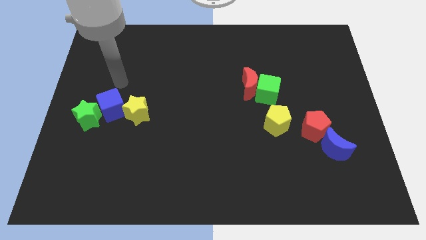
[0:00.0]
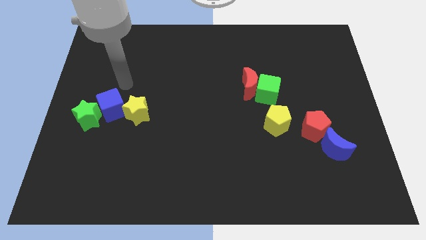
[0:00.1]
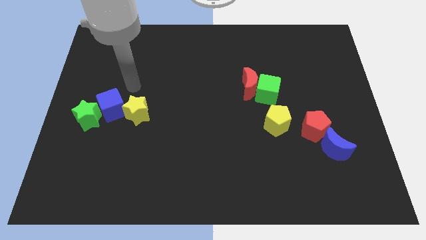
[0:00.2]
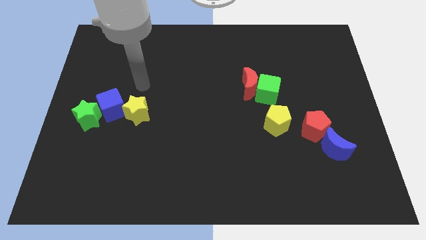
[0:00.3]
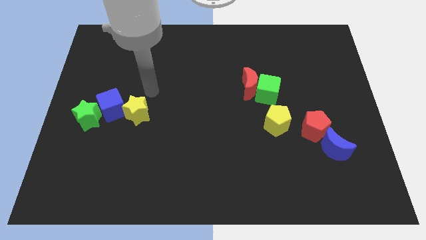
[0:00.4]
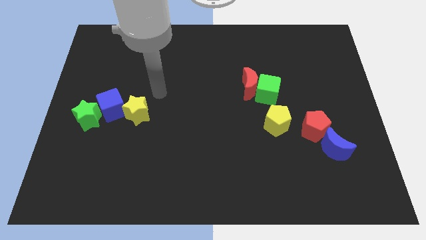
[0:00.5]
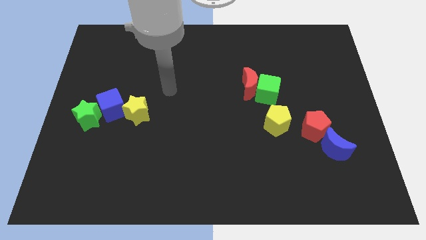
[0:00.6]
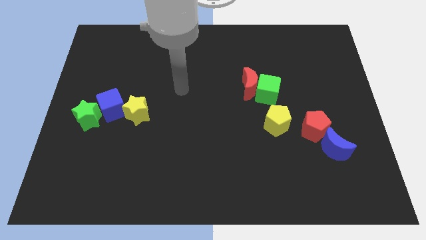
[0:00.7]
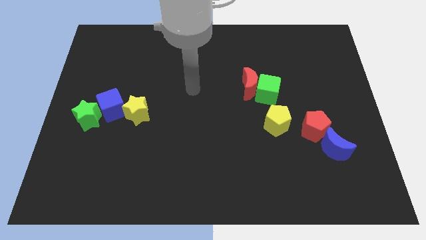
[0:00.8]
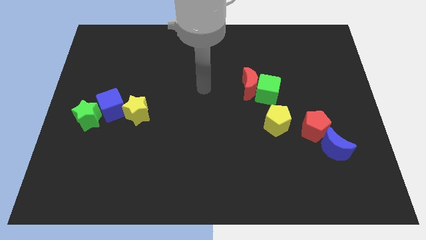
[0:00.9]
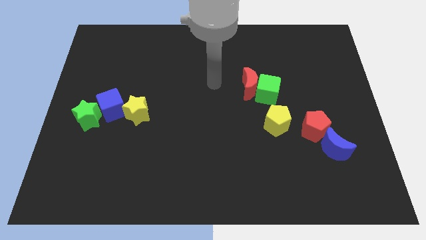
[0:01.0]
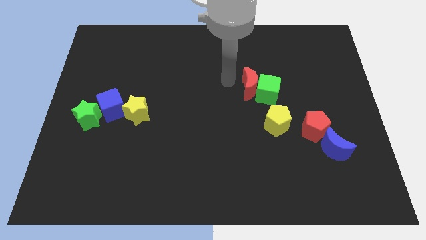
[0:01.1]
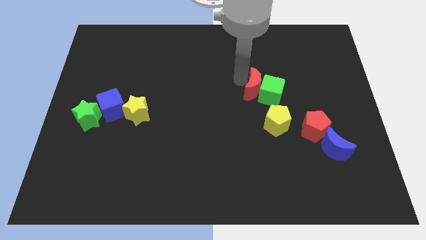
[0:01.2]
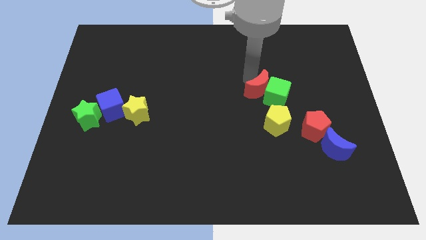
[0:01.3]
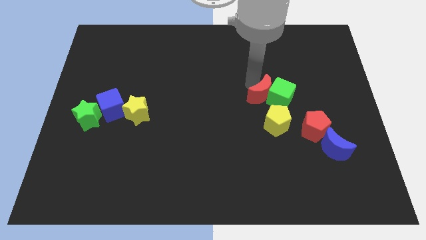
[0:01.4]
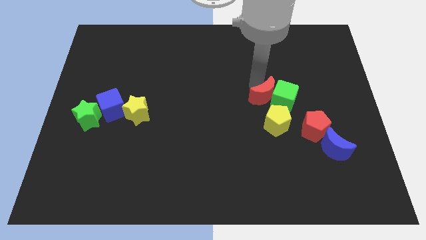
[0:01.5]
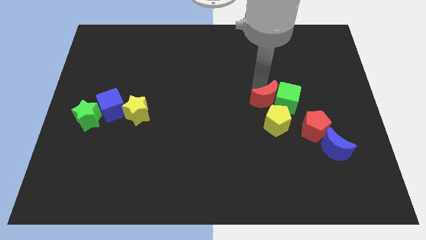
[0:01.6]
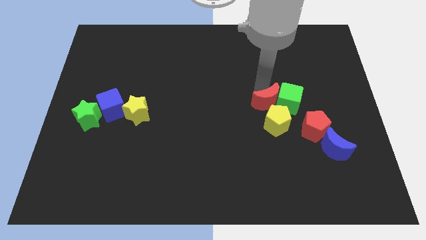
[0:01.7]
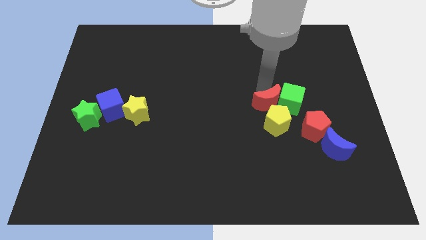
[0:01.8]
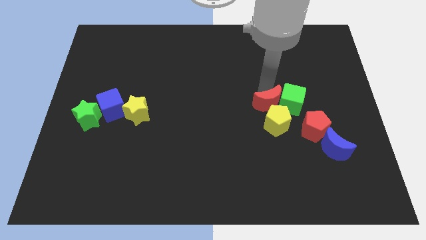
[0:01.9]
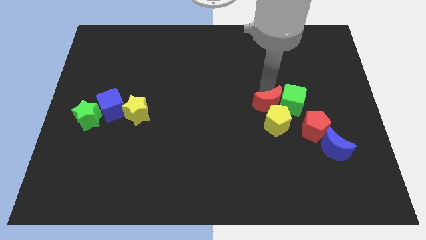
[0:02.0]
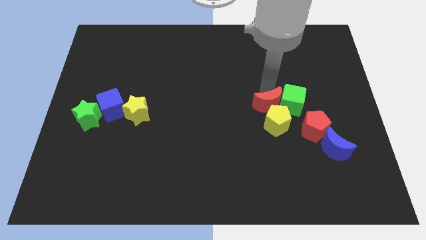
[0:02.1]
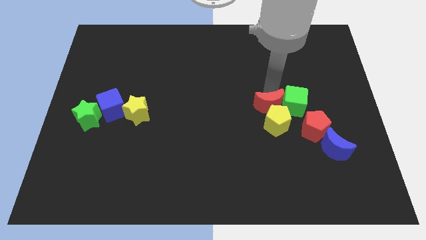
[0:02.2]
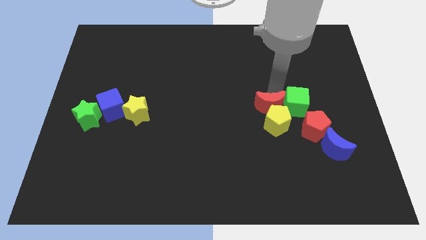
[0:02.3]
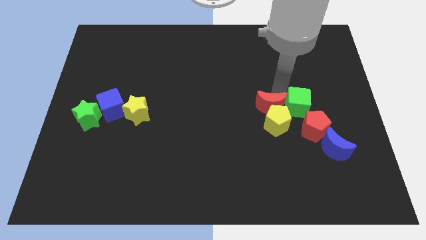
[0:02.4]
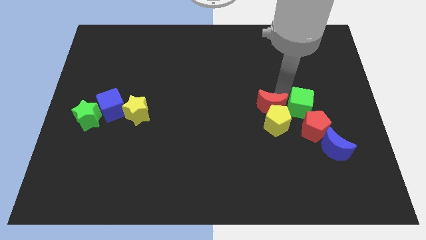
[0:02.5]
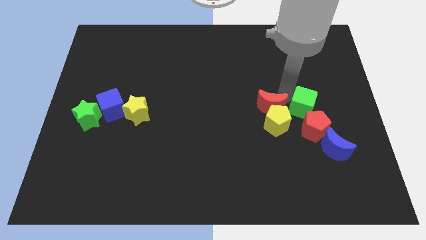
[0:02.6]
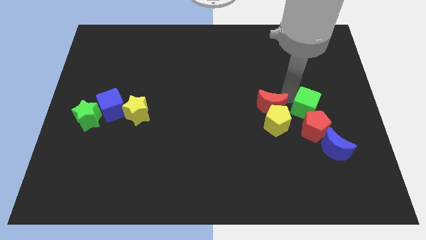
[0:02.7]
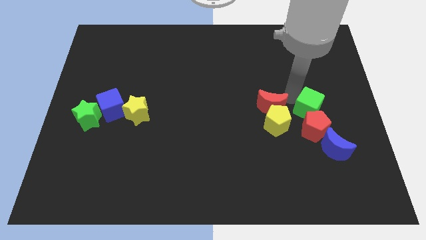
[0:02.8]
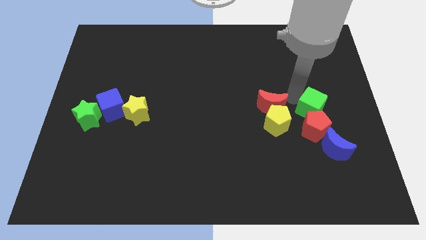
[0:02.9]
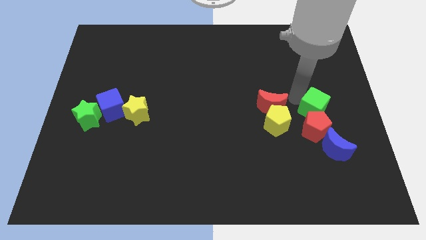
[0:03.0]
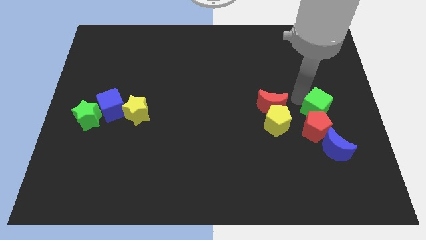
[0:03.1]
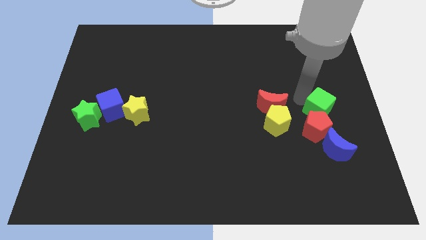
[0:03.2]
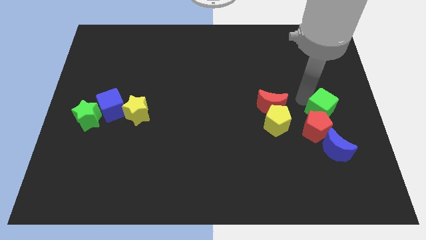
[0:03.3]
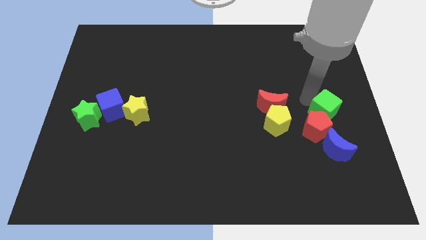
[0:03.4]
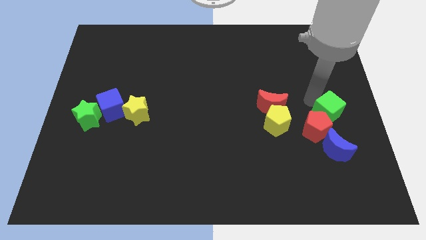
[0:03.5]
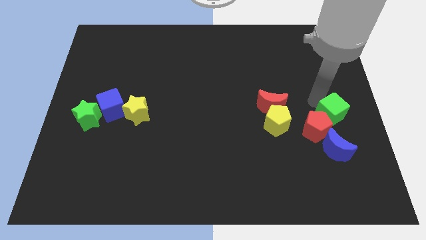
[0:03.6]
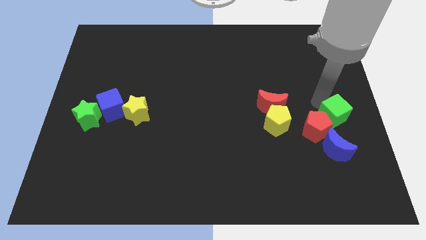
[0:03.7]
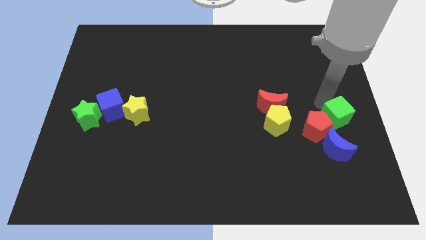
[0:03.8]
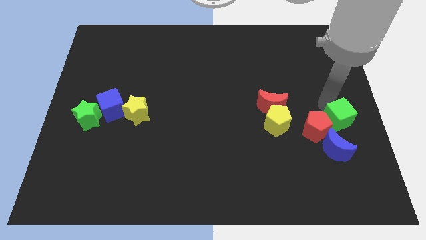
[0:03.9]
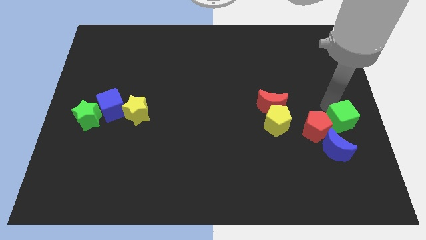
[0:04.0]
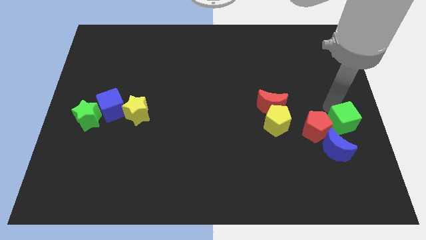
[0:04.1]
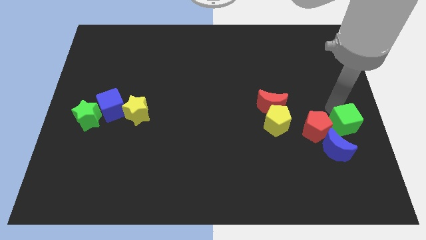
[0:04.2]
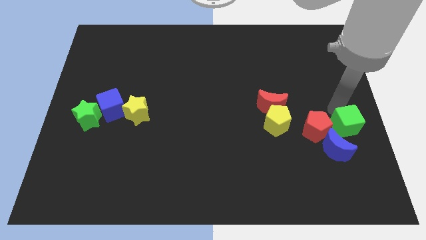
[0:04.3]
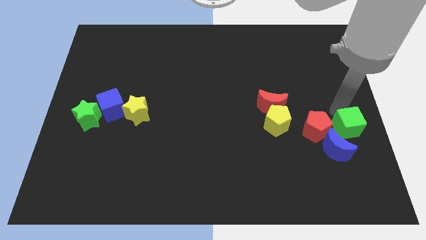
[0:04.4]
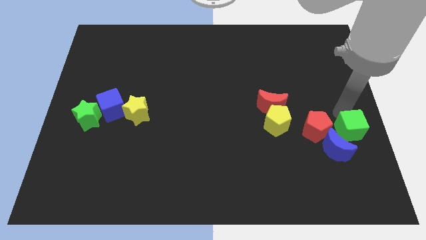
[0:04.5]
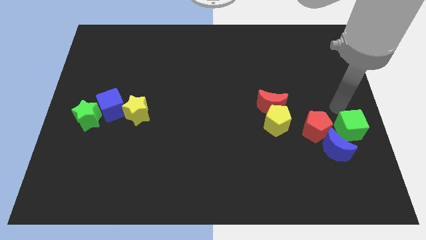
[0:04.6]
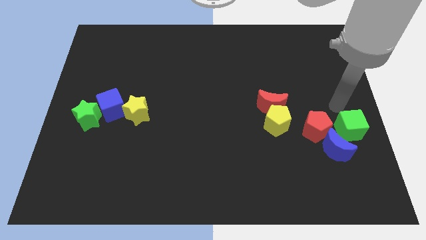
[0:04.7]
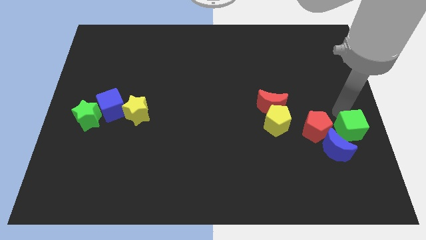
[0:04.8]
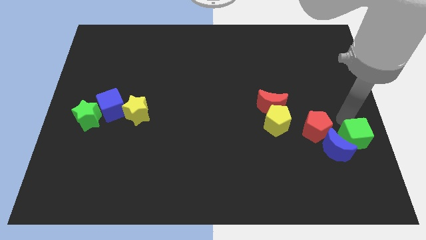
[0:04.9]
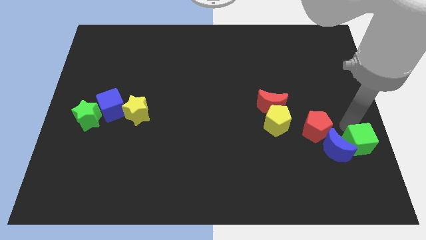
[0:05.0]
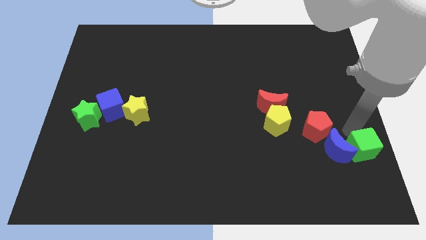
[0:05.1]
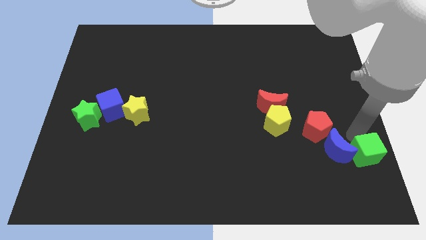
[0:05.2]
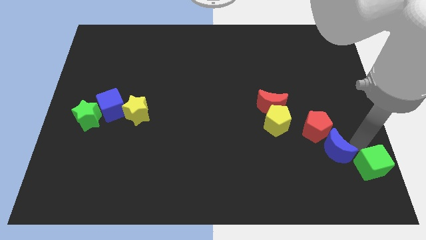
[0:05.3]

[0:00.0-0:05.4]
put the green cube to the bottom right of the board

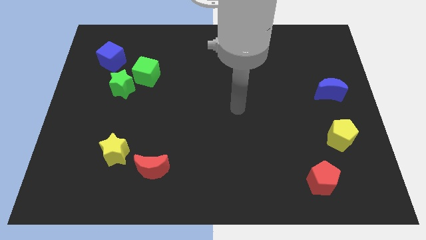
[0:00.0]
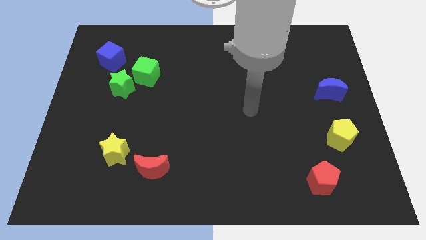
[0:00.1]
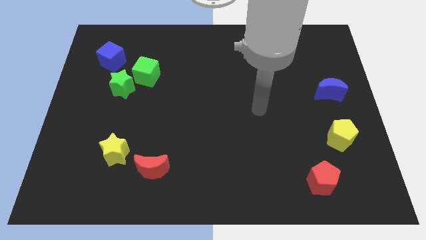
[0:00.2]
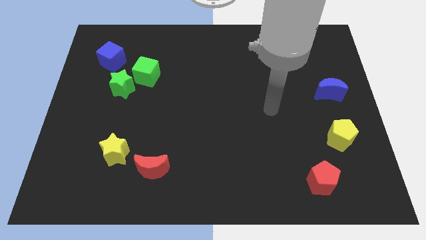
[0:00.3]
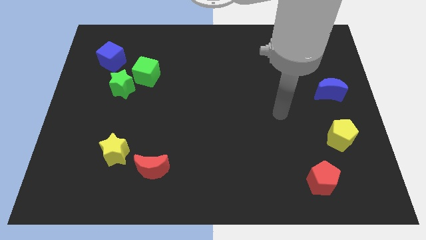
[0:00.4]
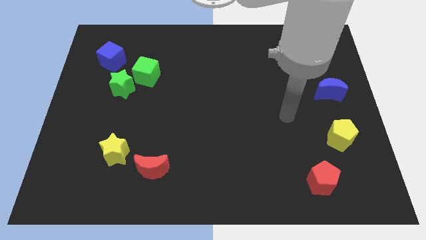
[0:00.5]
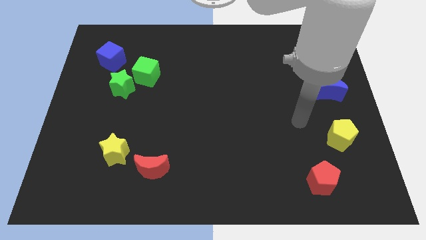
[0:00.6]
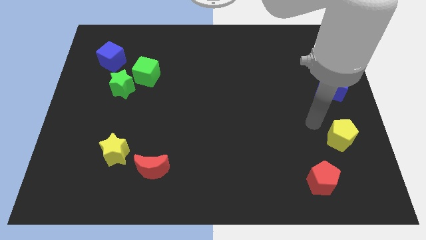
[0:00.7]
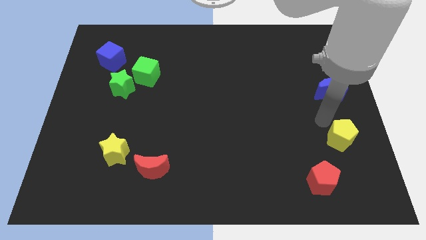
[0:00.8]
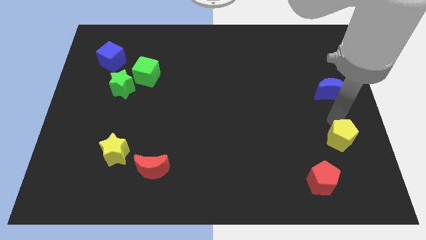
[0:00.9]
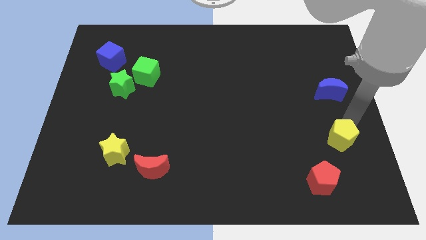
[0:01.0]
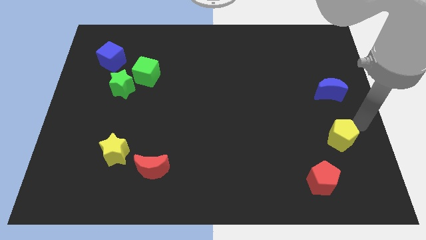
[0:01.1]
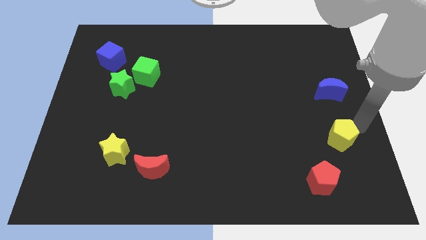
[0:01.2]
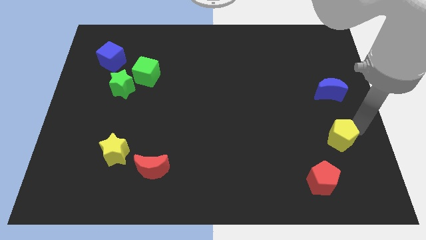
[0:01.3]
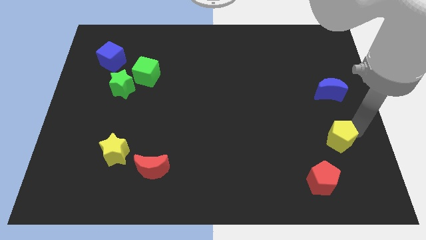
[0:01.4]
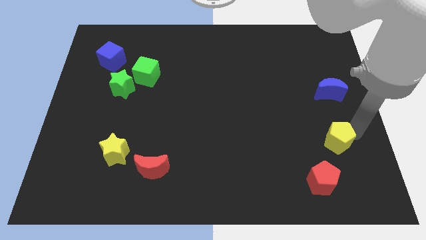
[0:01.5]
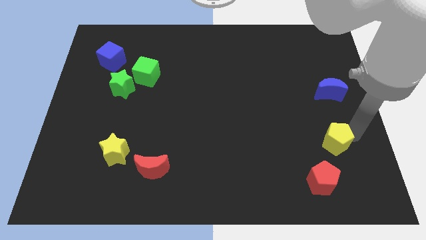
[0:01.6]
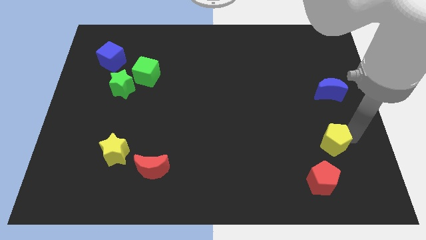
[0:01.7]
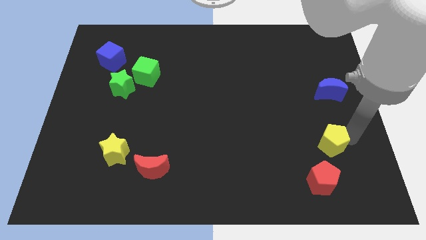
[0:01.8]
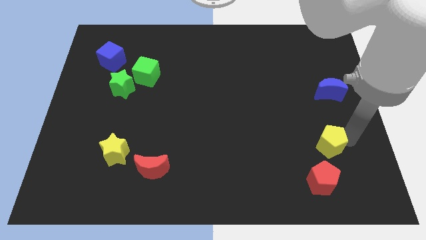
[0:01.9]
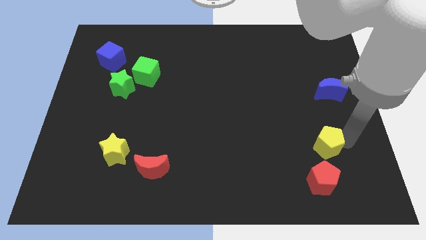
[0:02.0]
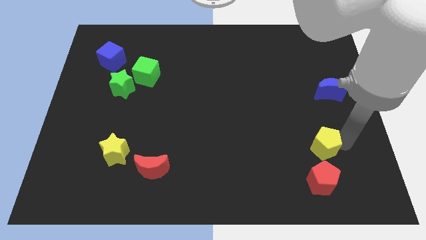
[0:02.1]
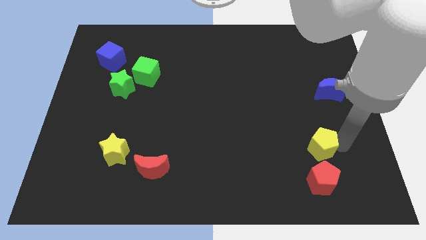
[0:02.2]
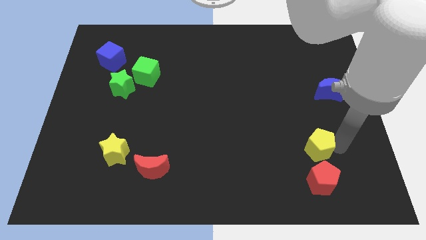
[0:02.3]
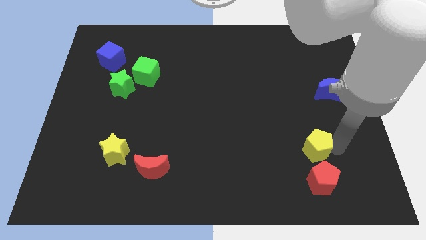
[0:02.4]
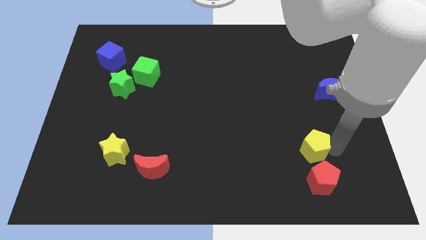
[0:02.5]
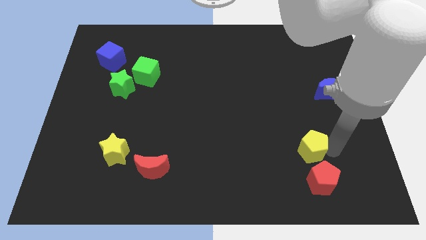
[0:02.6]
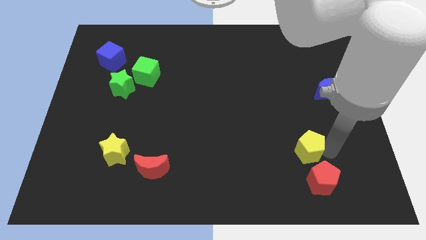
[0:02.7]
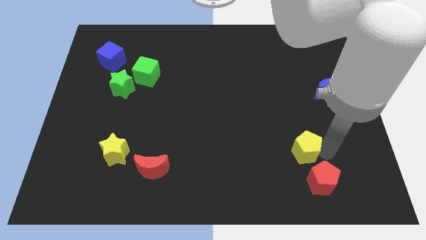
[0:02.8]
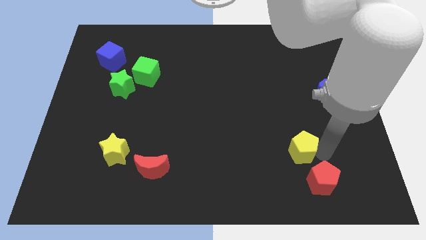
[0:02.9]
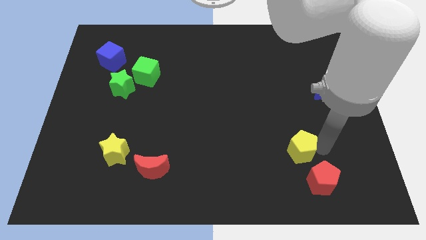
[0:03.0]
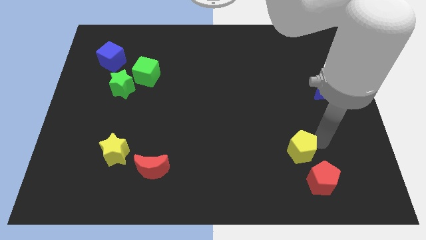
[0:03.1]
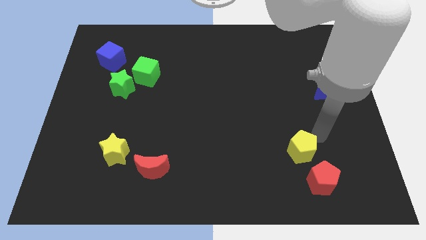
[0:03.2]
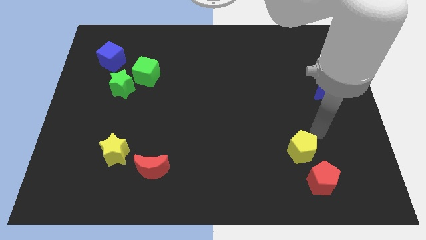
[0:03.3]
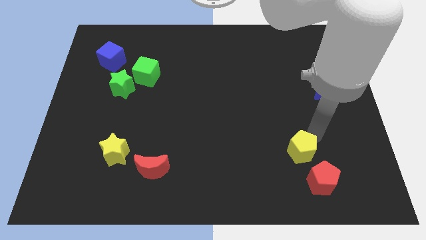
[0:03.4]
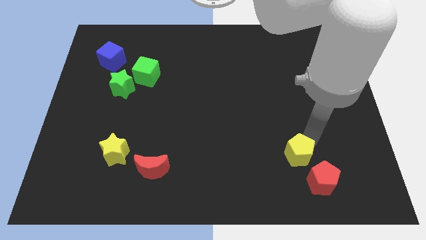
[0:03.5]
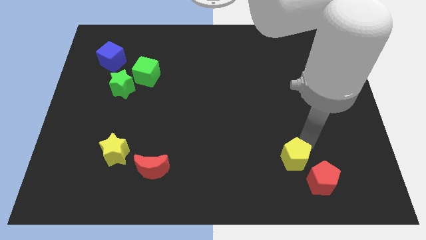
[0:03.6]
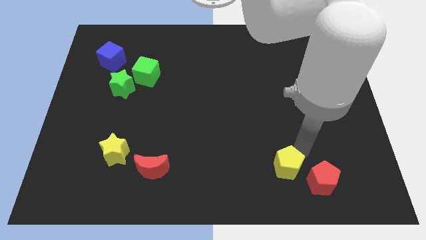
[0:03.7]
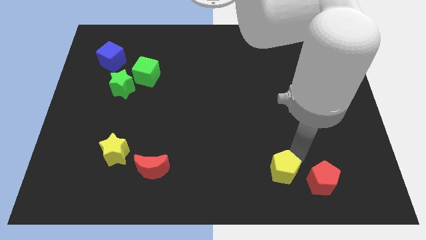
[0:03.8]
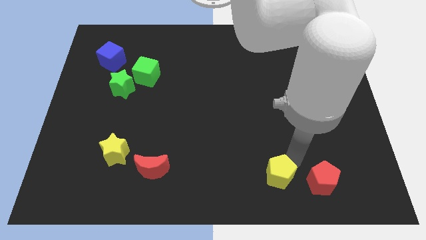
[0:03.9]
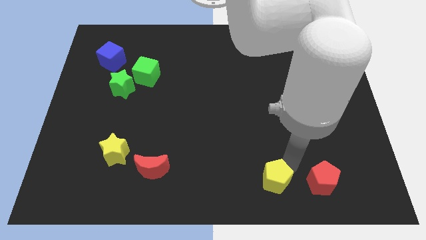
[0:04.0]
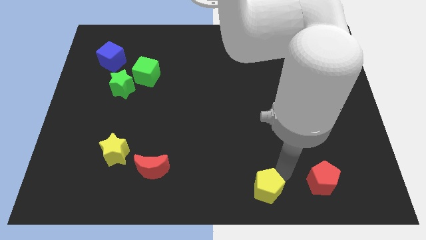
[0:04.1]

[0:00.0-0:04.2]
push the yellow pentagon to the bottom
